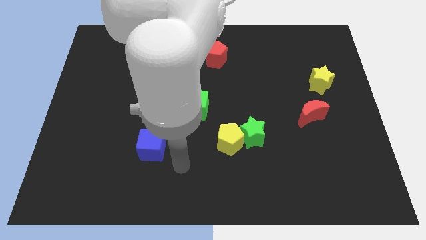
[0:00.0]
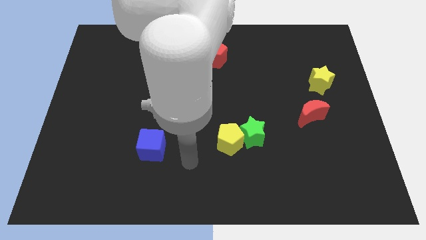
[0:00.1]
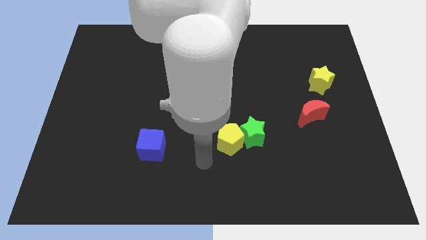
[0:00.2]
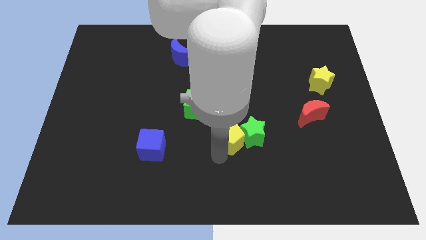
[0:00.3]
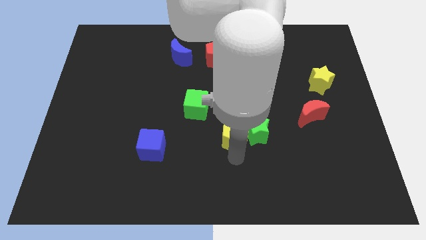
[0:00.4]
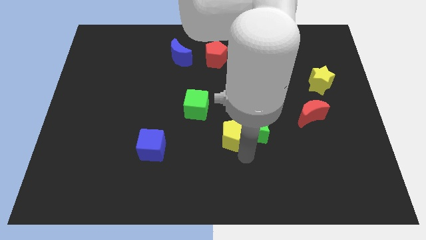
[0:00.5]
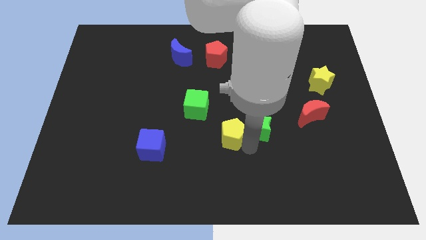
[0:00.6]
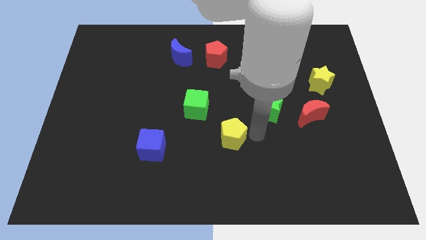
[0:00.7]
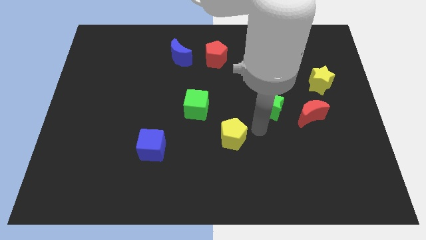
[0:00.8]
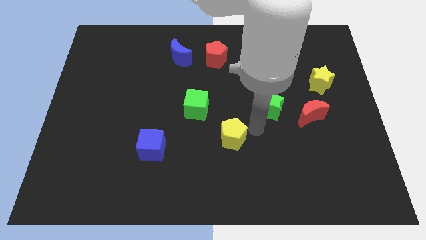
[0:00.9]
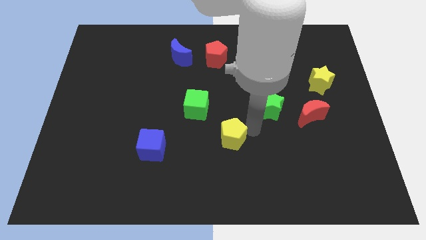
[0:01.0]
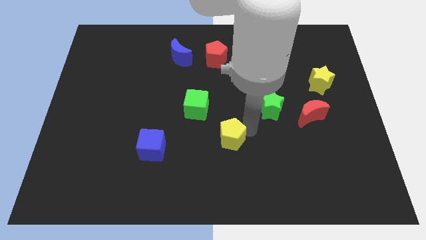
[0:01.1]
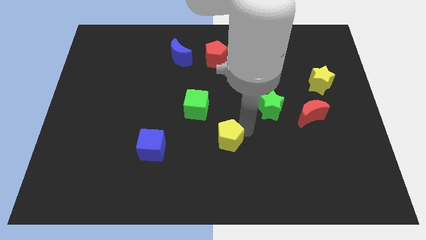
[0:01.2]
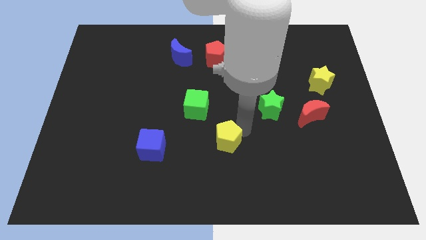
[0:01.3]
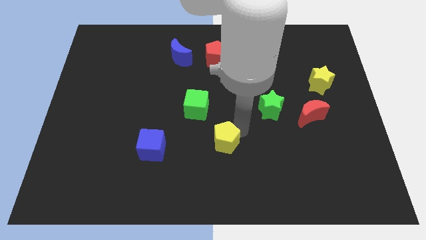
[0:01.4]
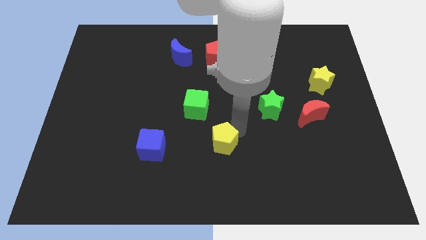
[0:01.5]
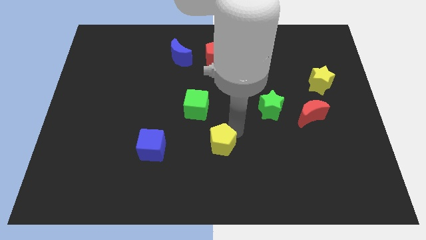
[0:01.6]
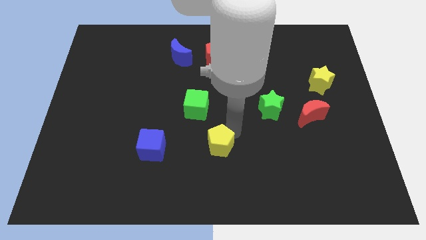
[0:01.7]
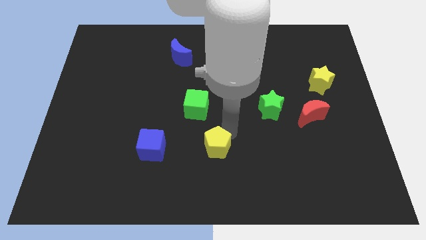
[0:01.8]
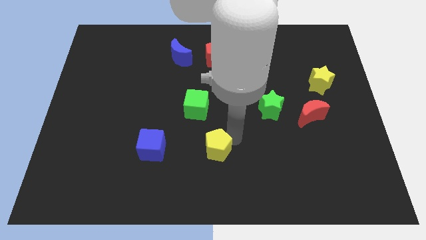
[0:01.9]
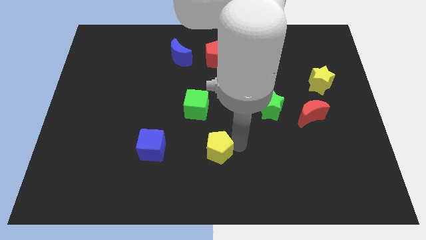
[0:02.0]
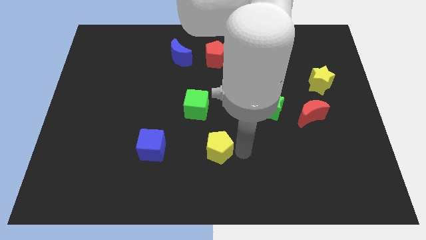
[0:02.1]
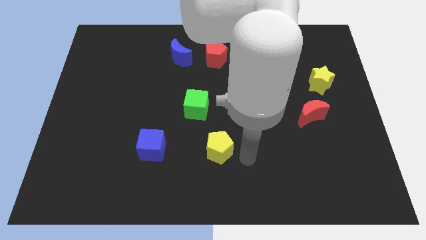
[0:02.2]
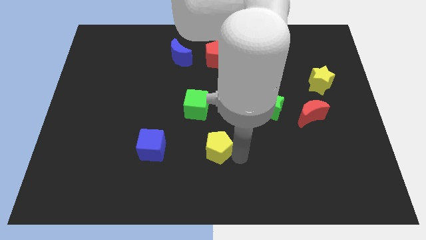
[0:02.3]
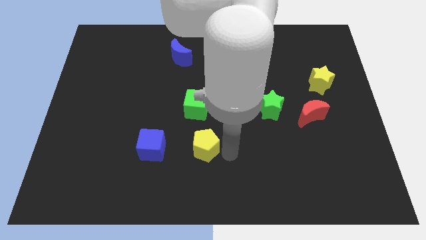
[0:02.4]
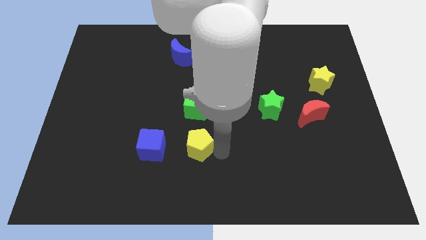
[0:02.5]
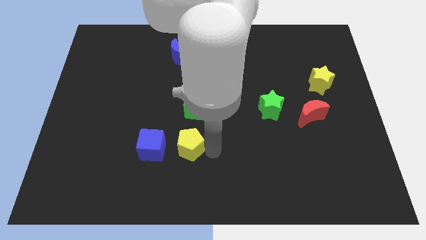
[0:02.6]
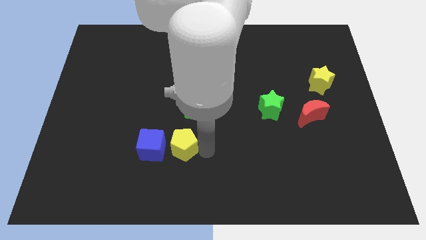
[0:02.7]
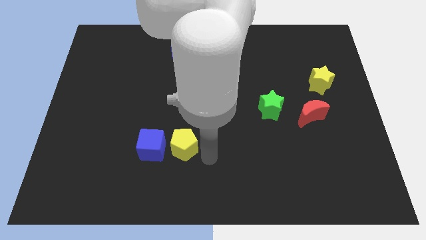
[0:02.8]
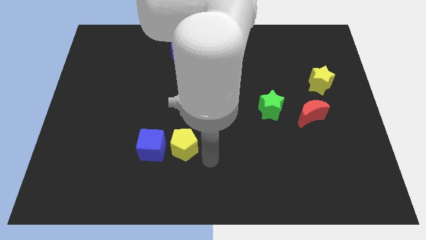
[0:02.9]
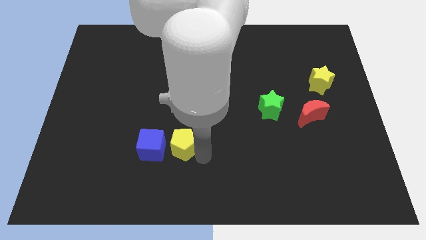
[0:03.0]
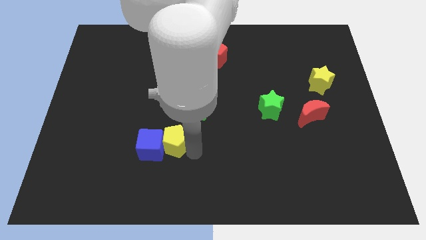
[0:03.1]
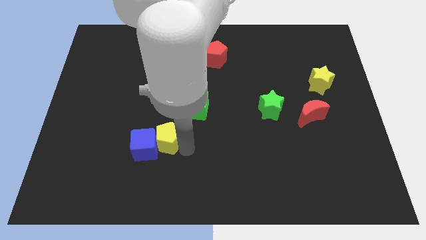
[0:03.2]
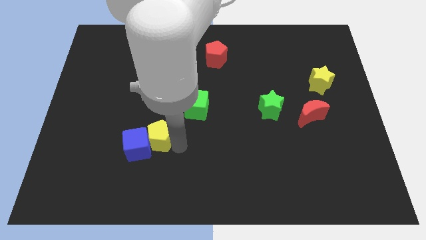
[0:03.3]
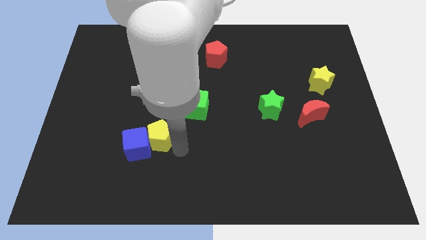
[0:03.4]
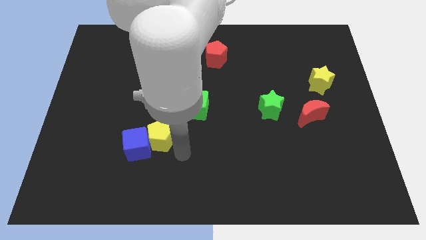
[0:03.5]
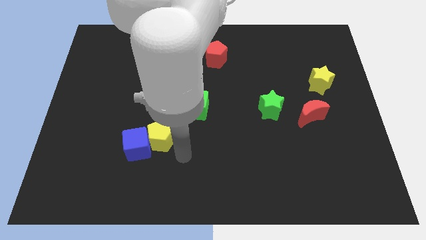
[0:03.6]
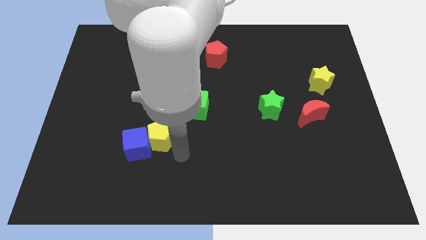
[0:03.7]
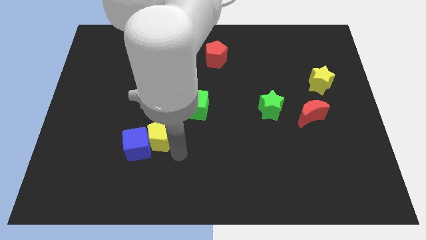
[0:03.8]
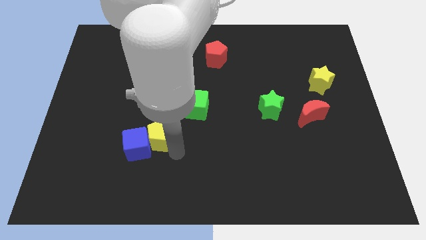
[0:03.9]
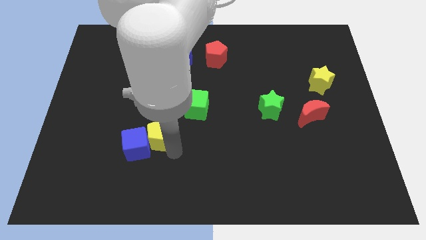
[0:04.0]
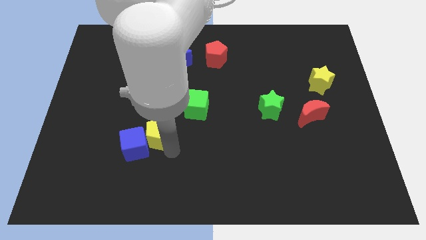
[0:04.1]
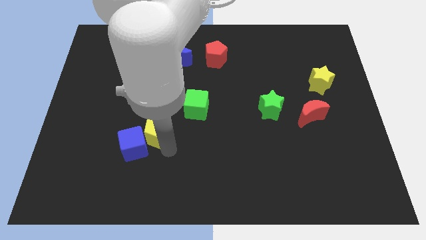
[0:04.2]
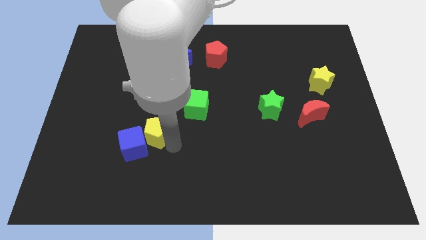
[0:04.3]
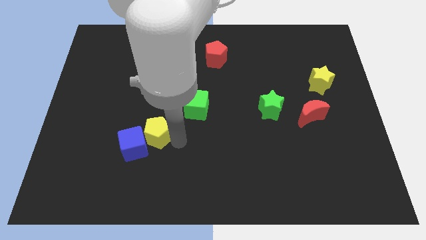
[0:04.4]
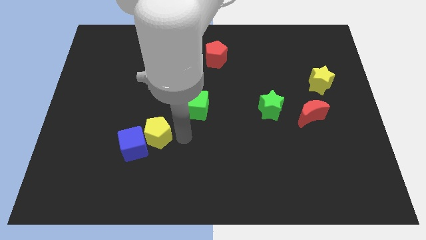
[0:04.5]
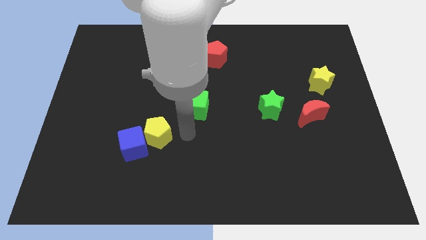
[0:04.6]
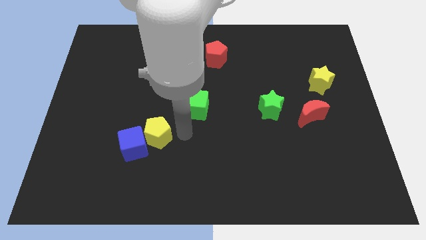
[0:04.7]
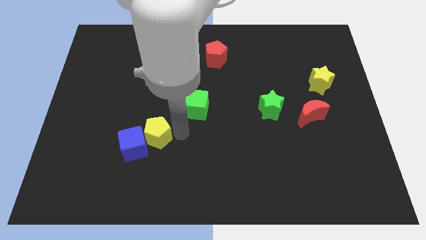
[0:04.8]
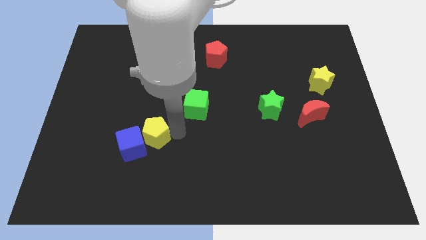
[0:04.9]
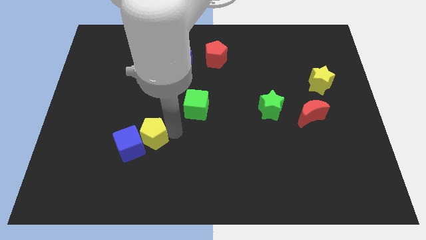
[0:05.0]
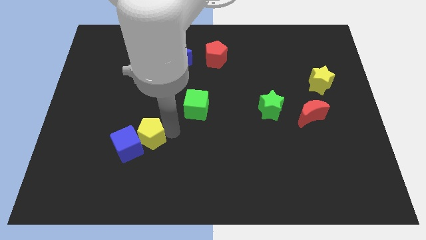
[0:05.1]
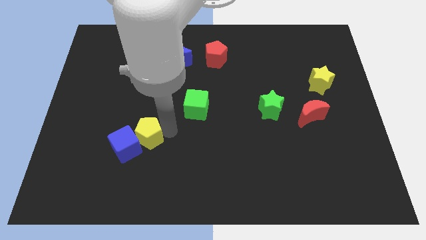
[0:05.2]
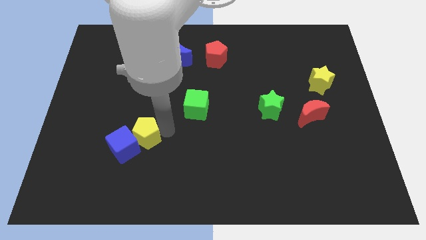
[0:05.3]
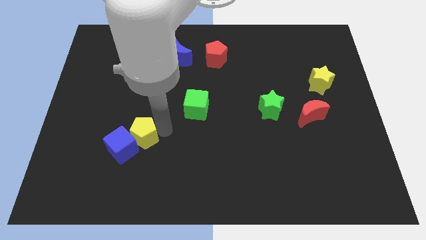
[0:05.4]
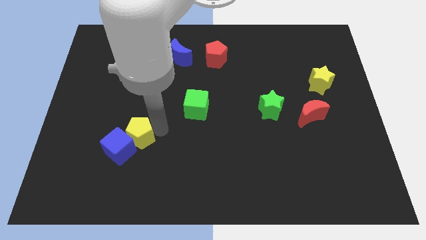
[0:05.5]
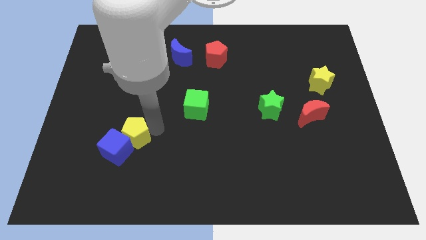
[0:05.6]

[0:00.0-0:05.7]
move the yellow pentagon to the left

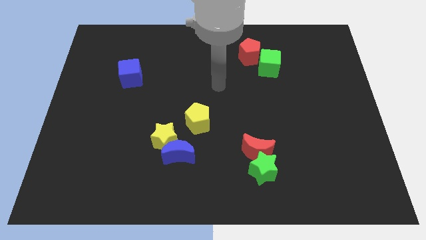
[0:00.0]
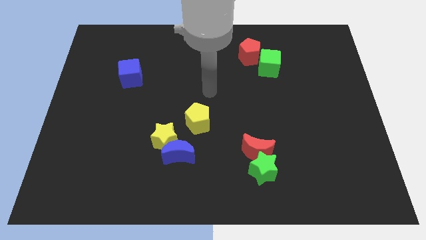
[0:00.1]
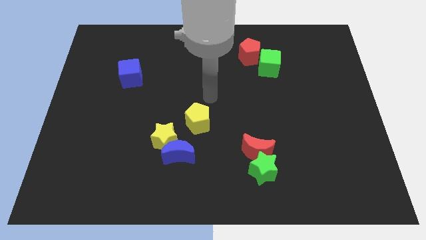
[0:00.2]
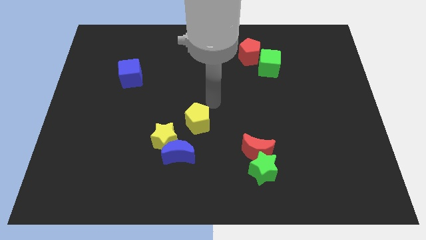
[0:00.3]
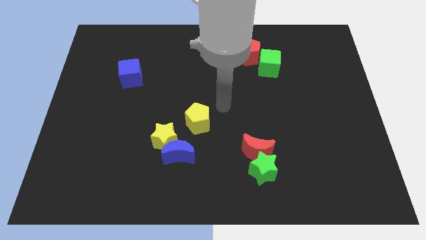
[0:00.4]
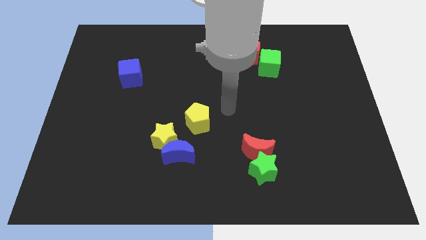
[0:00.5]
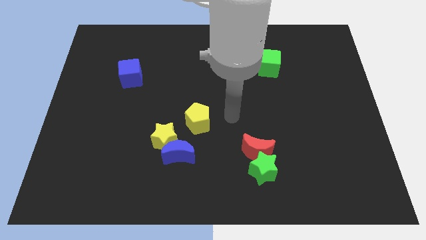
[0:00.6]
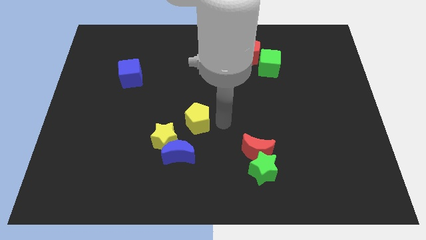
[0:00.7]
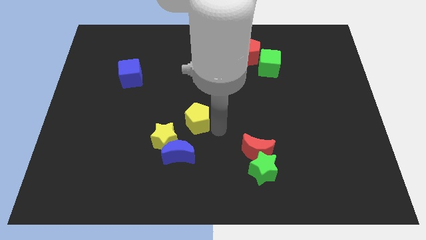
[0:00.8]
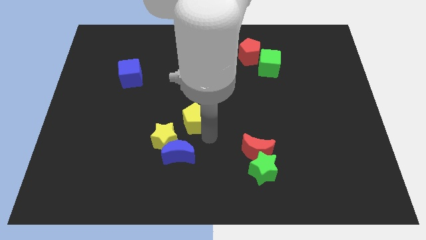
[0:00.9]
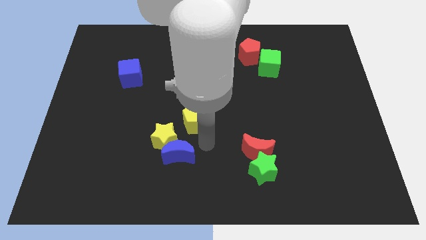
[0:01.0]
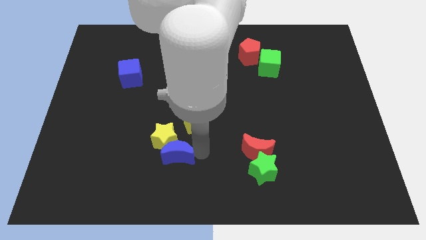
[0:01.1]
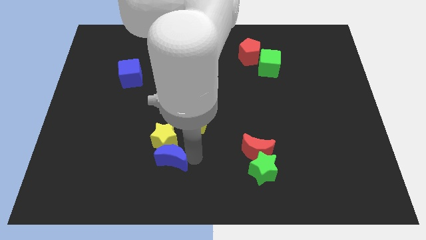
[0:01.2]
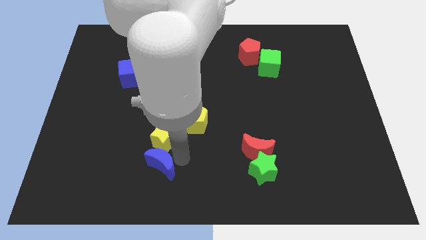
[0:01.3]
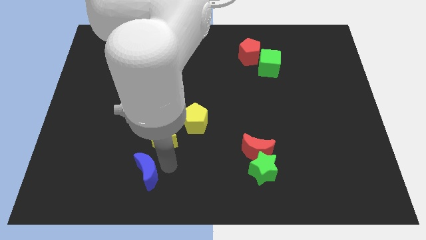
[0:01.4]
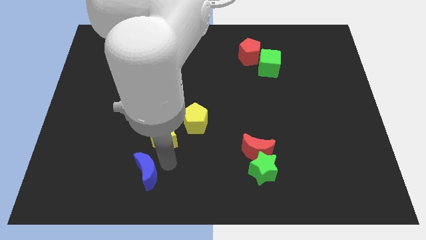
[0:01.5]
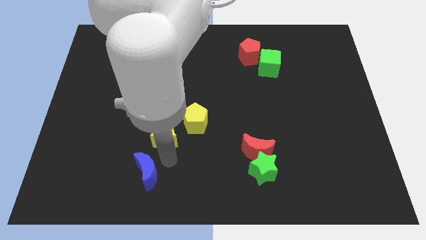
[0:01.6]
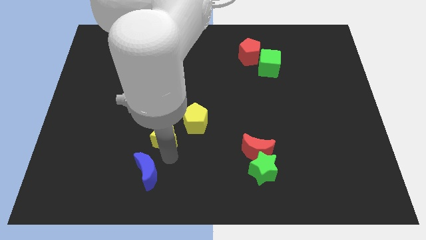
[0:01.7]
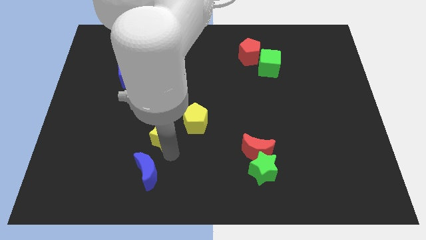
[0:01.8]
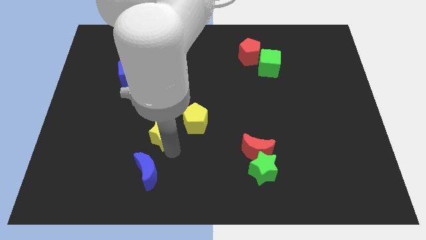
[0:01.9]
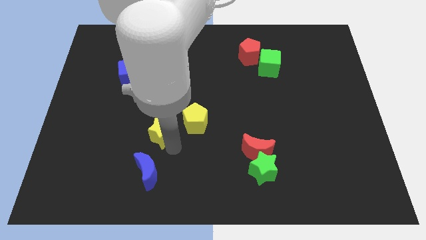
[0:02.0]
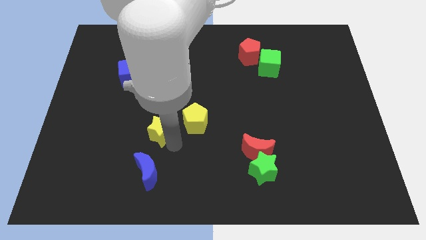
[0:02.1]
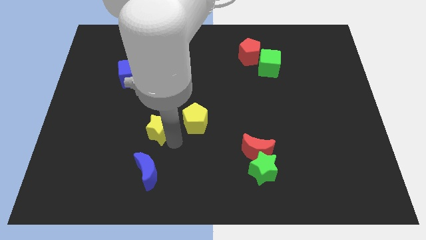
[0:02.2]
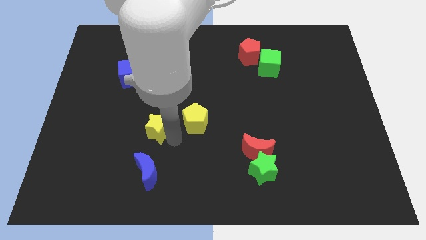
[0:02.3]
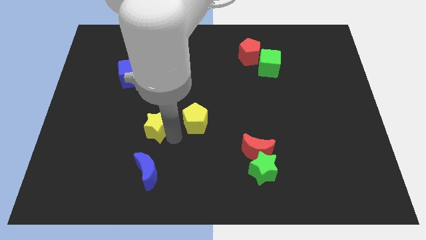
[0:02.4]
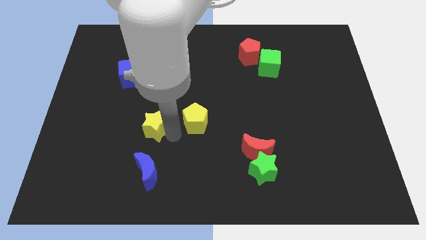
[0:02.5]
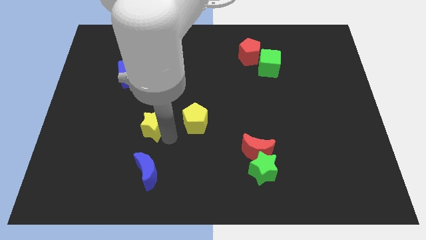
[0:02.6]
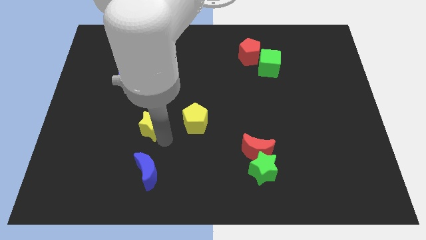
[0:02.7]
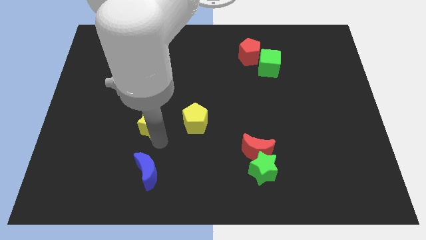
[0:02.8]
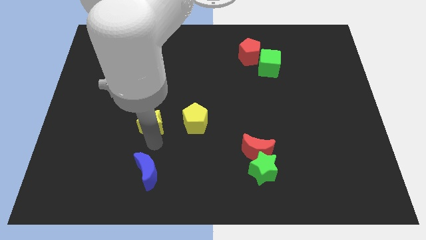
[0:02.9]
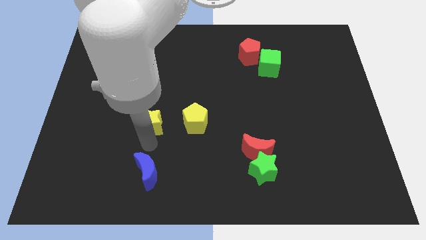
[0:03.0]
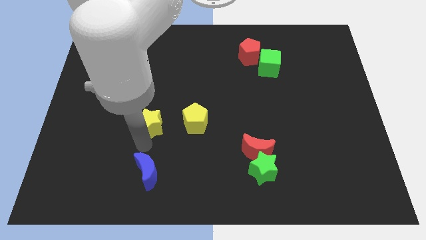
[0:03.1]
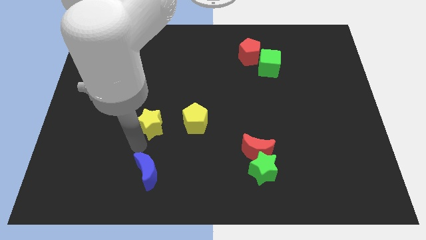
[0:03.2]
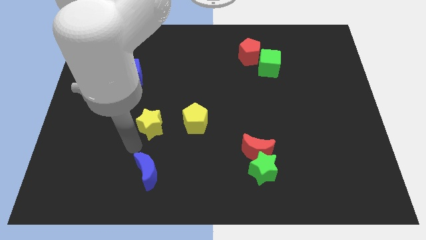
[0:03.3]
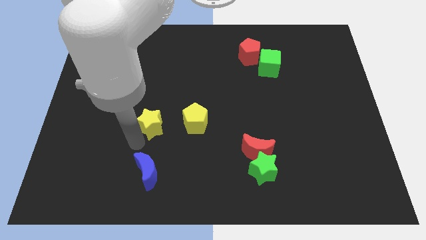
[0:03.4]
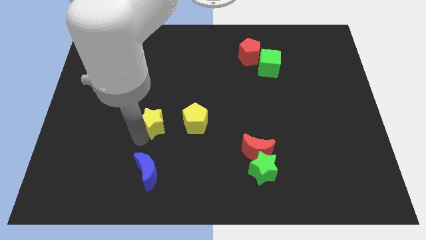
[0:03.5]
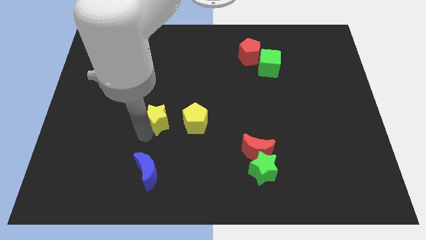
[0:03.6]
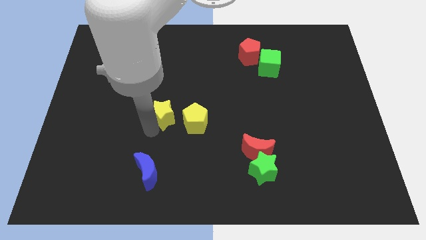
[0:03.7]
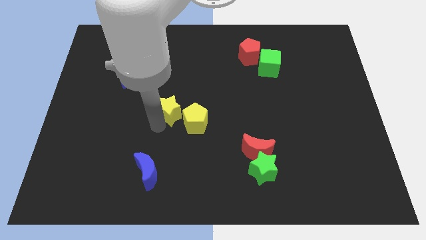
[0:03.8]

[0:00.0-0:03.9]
move the yellow star a bit upwards
